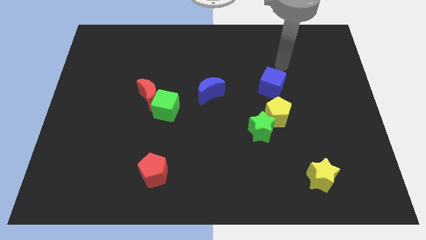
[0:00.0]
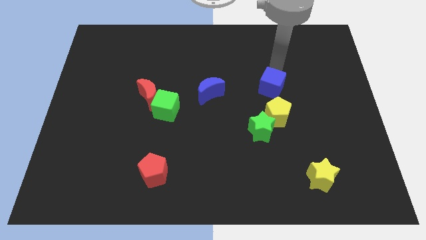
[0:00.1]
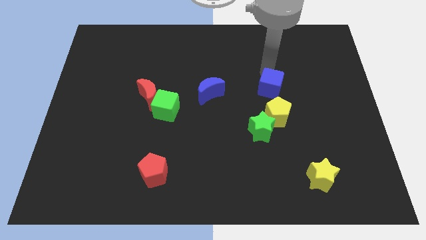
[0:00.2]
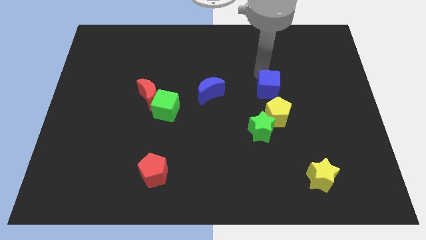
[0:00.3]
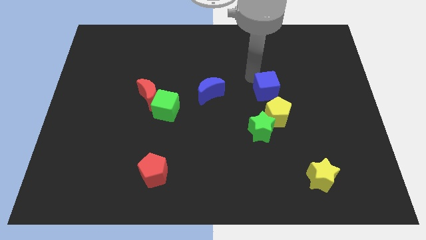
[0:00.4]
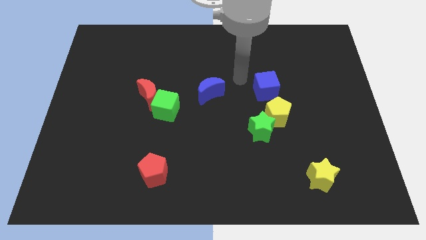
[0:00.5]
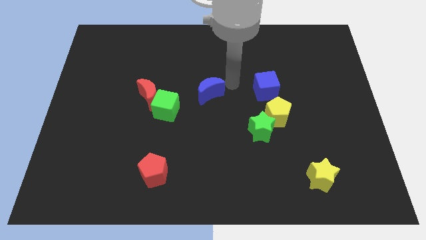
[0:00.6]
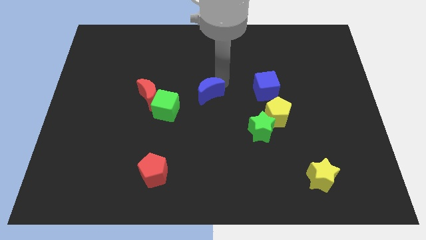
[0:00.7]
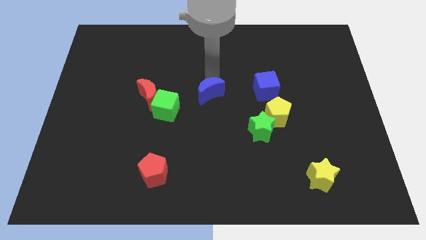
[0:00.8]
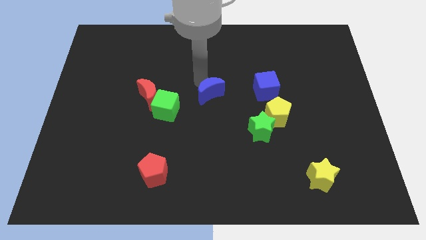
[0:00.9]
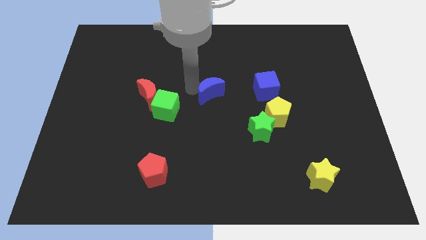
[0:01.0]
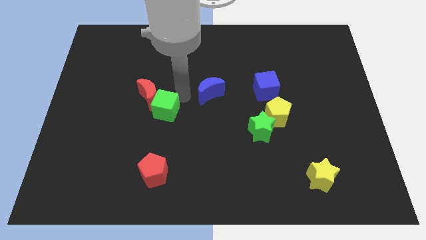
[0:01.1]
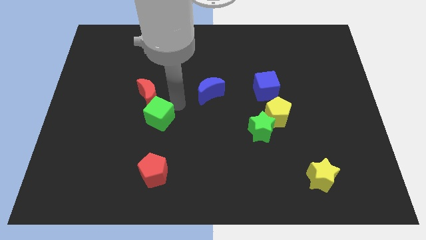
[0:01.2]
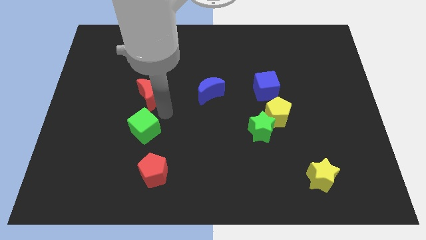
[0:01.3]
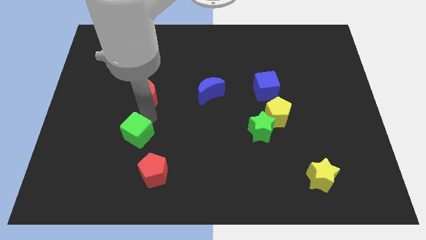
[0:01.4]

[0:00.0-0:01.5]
pull the red moon apart from the green cube

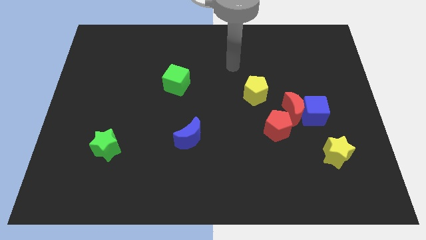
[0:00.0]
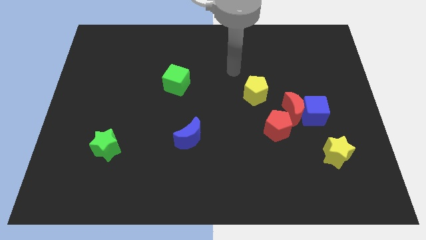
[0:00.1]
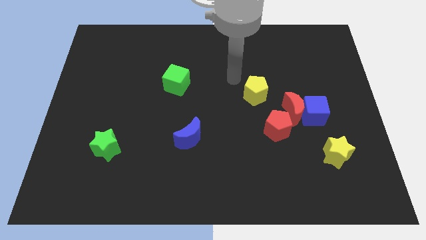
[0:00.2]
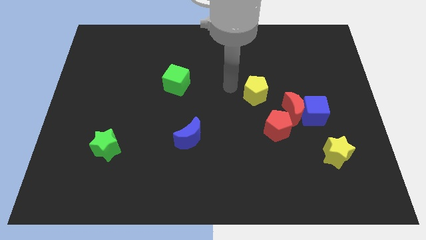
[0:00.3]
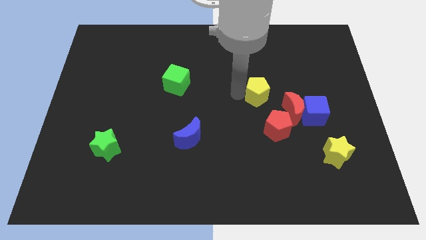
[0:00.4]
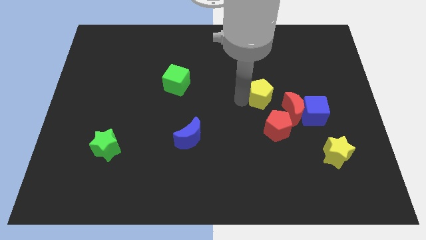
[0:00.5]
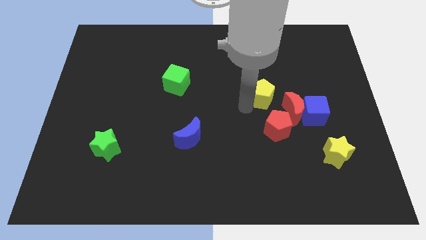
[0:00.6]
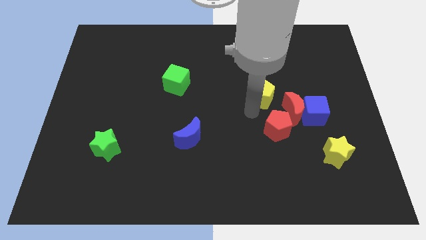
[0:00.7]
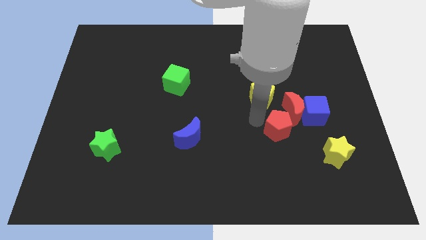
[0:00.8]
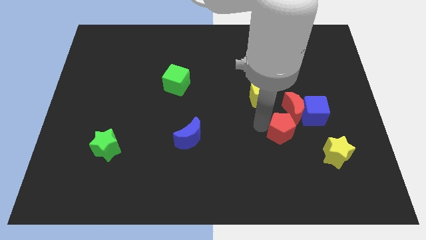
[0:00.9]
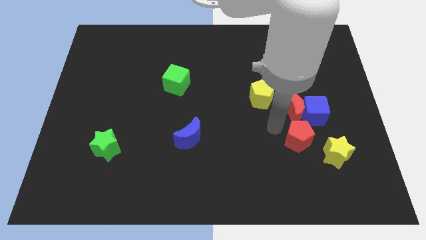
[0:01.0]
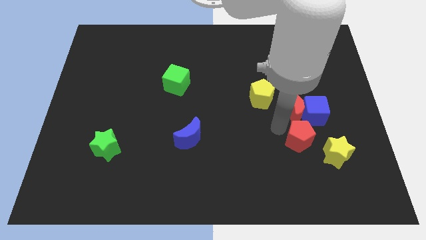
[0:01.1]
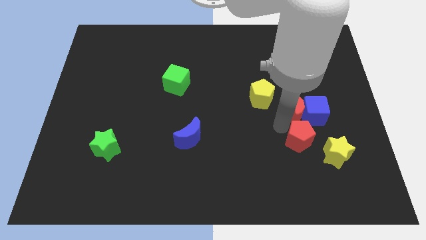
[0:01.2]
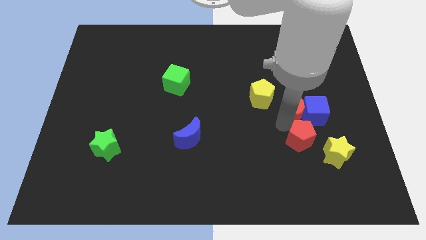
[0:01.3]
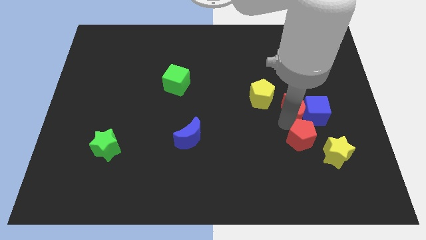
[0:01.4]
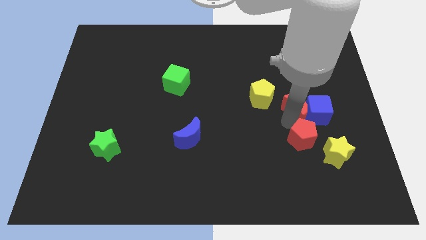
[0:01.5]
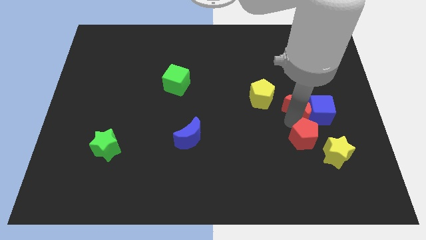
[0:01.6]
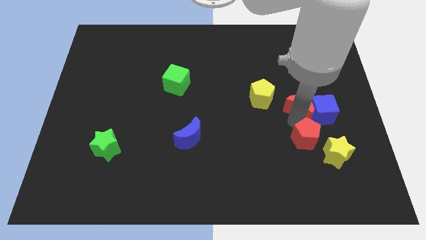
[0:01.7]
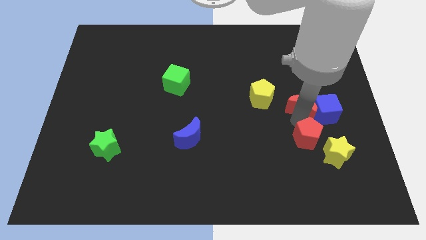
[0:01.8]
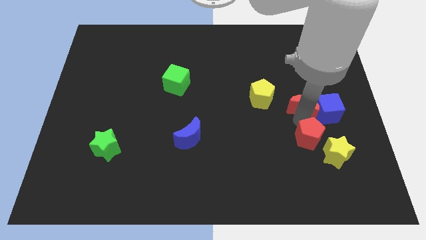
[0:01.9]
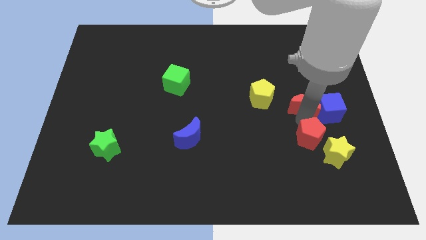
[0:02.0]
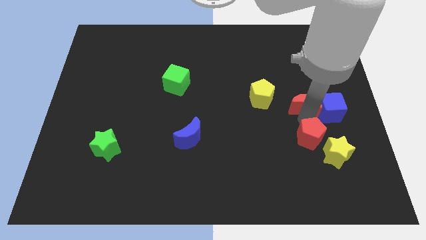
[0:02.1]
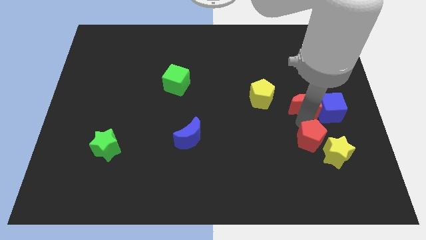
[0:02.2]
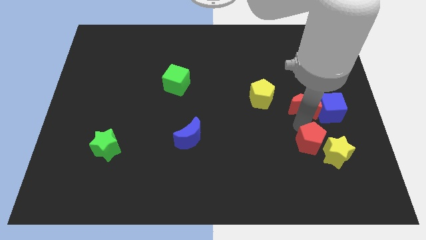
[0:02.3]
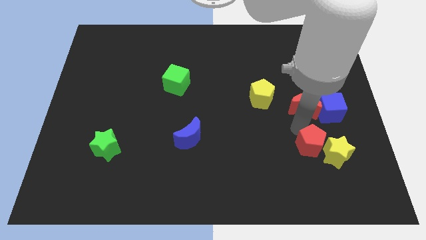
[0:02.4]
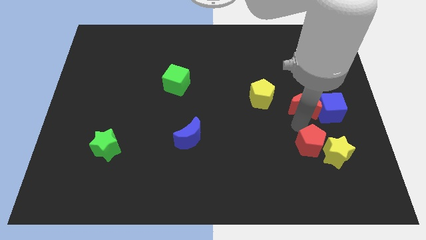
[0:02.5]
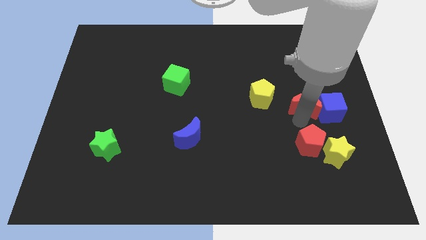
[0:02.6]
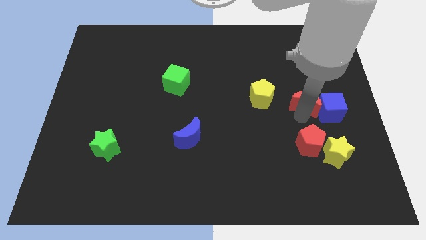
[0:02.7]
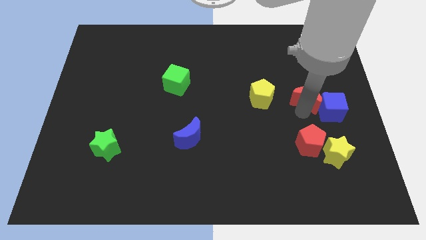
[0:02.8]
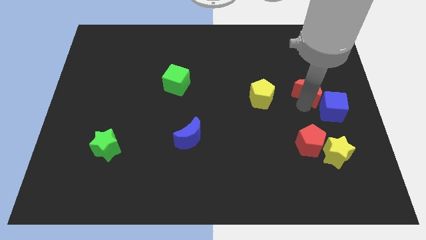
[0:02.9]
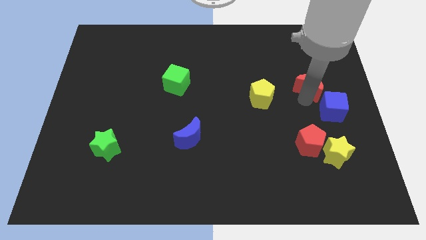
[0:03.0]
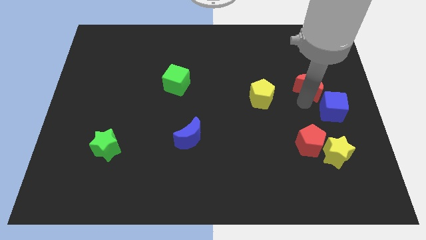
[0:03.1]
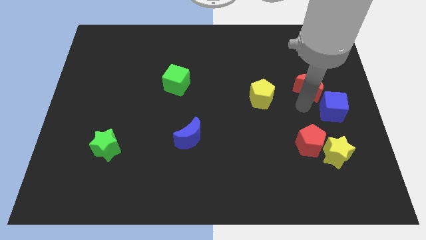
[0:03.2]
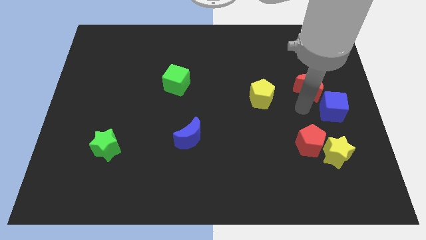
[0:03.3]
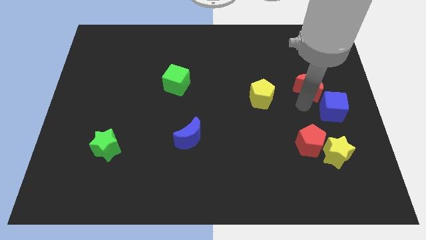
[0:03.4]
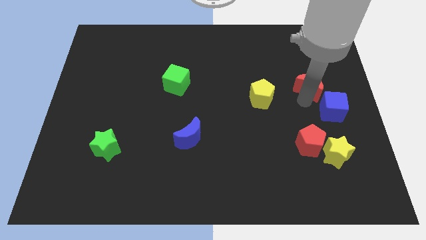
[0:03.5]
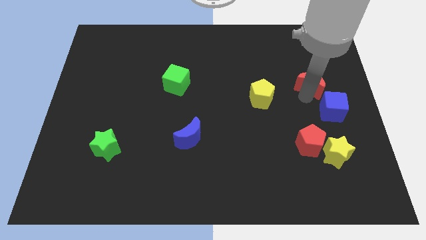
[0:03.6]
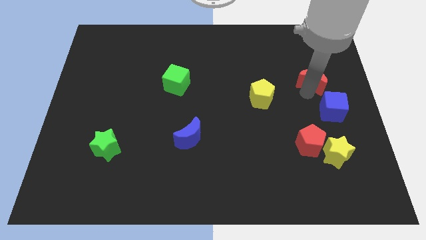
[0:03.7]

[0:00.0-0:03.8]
pull the red moon apart from the group of blocks

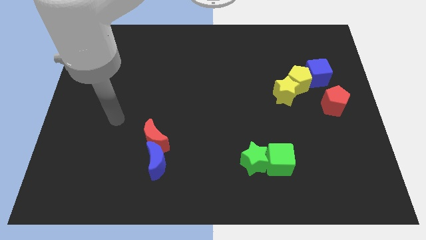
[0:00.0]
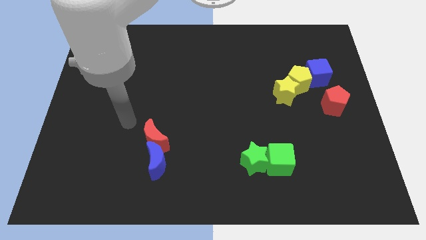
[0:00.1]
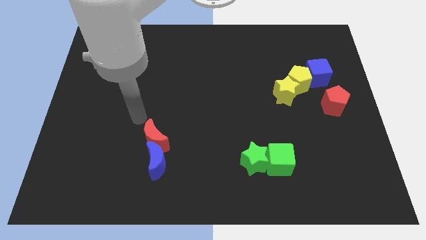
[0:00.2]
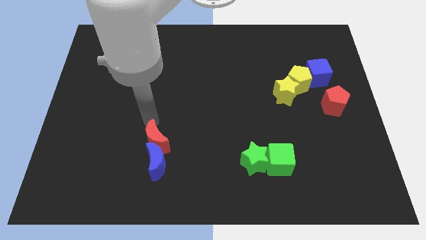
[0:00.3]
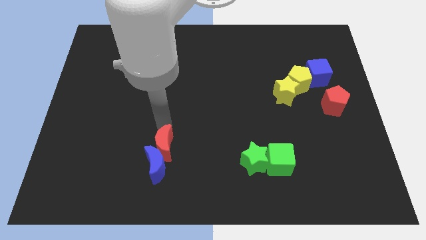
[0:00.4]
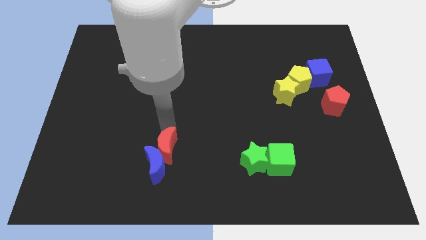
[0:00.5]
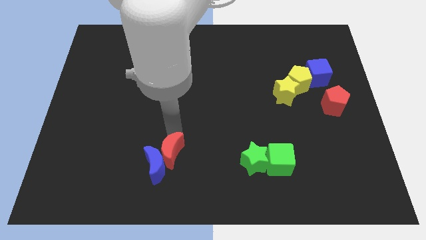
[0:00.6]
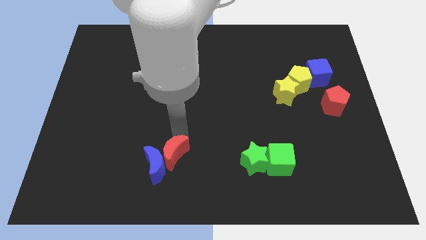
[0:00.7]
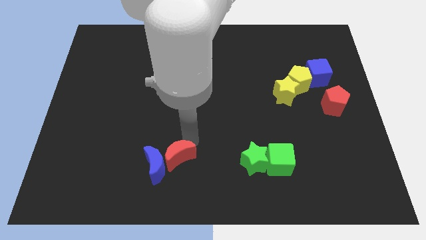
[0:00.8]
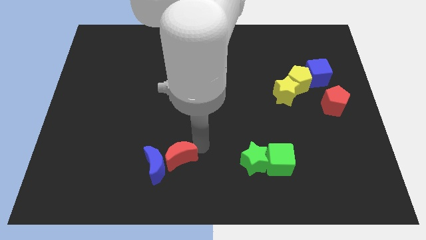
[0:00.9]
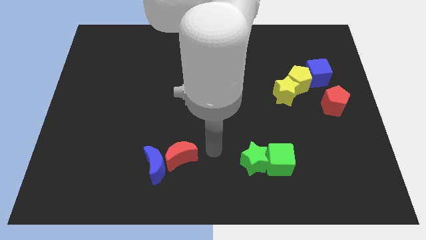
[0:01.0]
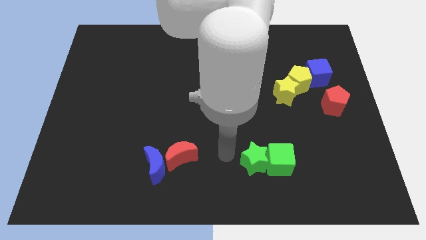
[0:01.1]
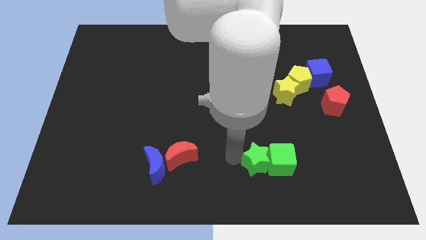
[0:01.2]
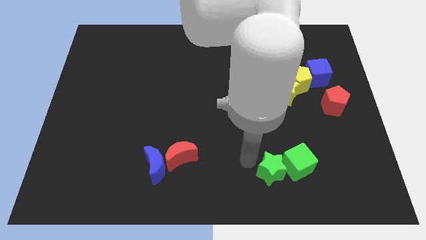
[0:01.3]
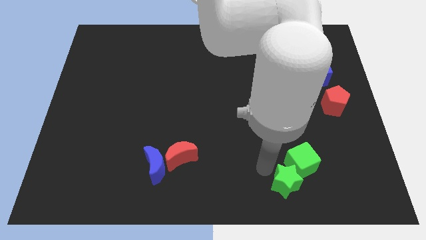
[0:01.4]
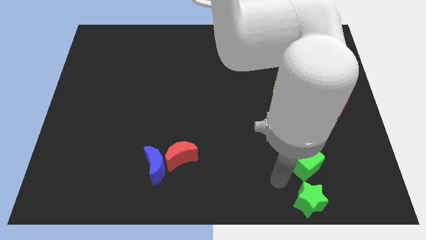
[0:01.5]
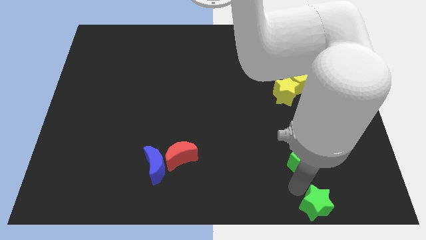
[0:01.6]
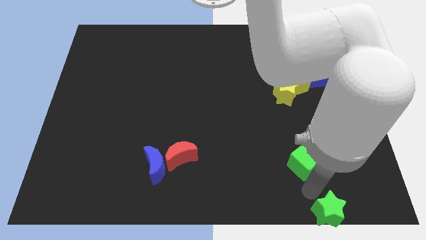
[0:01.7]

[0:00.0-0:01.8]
move the green cube away from the green star

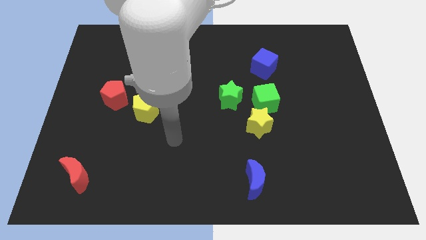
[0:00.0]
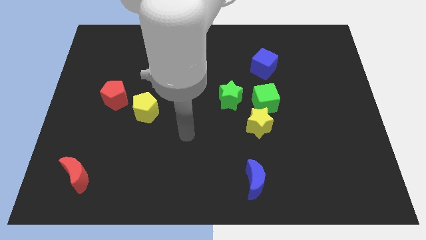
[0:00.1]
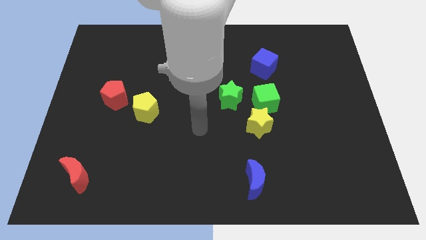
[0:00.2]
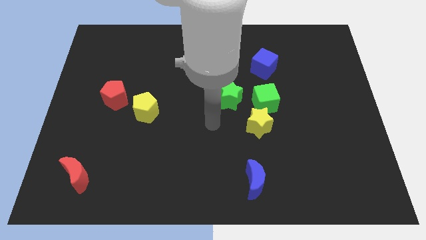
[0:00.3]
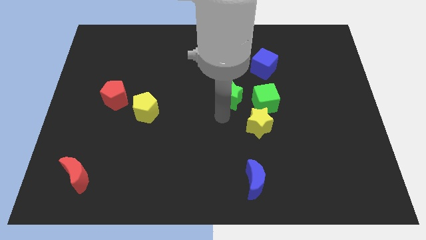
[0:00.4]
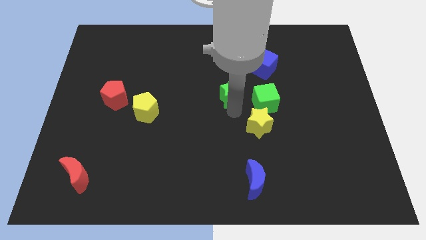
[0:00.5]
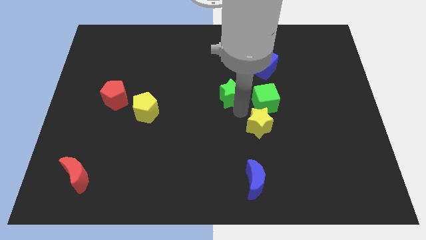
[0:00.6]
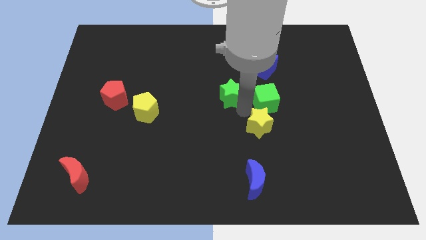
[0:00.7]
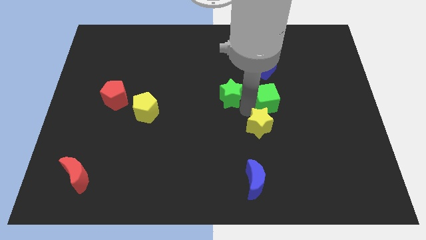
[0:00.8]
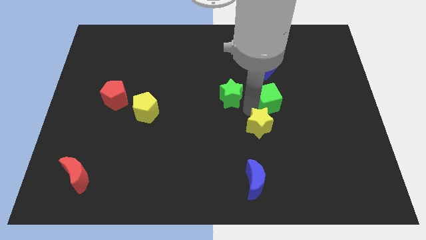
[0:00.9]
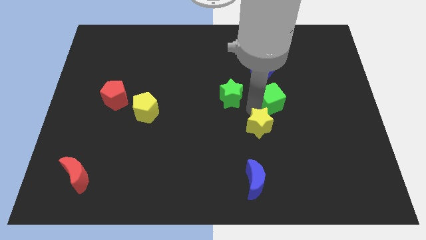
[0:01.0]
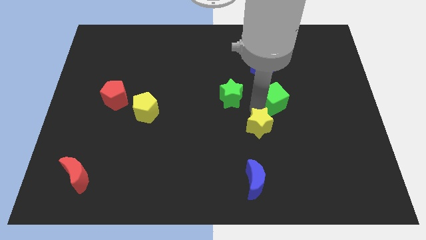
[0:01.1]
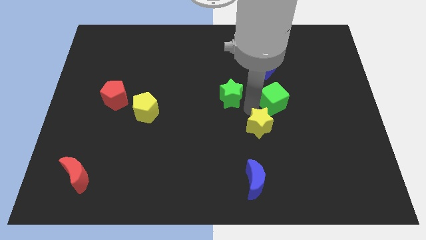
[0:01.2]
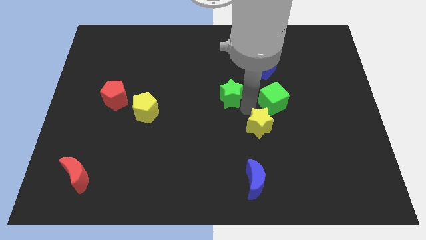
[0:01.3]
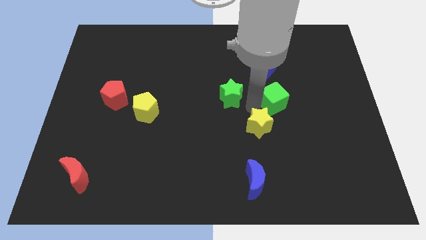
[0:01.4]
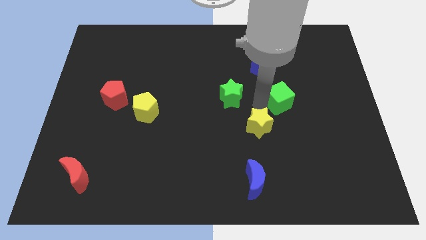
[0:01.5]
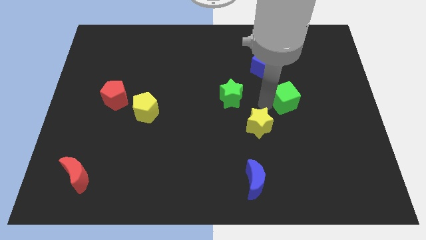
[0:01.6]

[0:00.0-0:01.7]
move the green cube away from the yellow star and green star

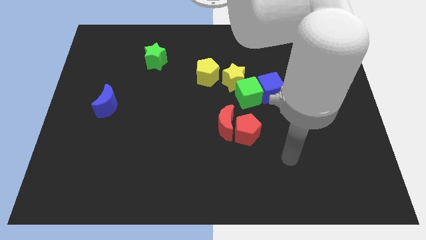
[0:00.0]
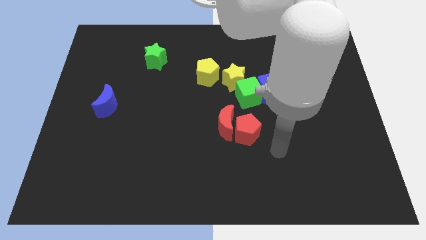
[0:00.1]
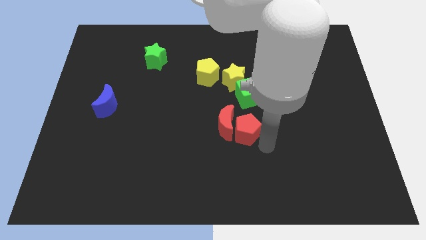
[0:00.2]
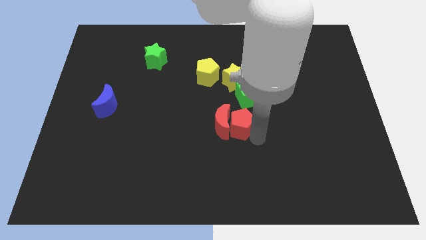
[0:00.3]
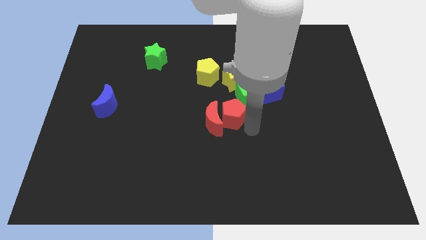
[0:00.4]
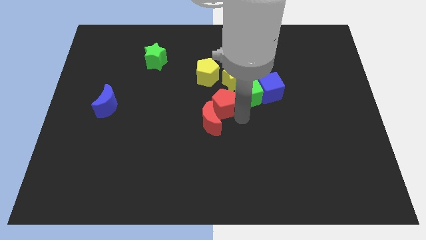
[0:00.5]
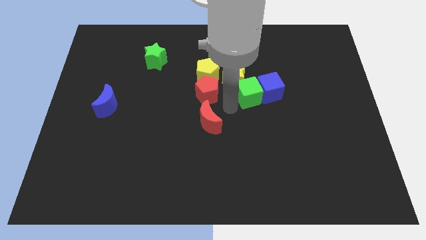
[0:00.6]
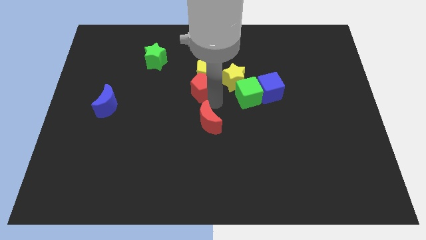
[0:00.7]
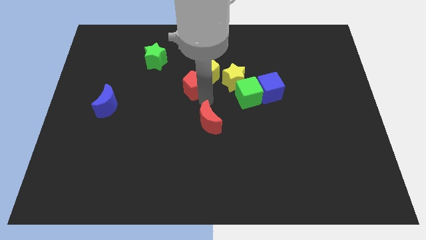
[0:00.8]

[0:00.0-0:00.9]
separate the red moon from the red pentagon
